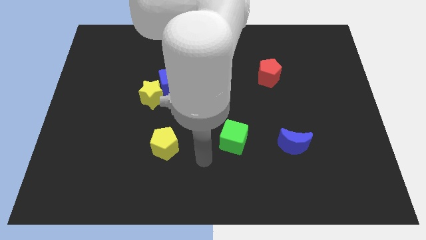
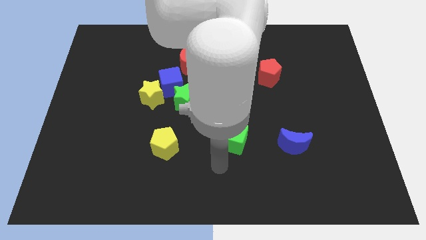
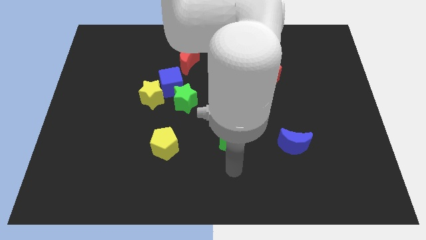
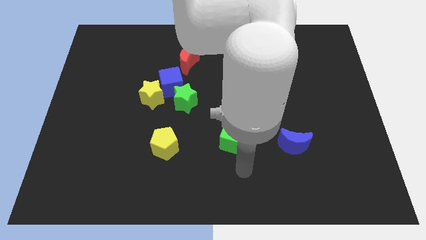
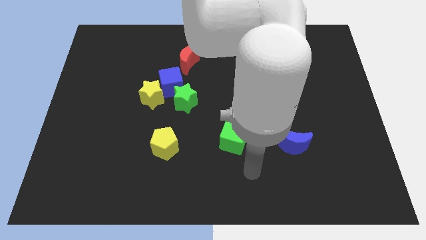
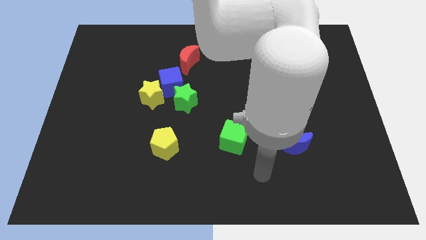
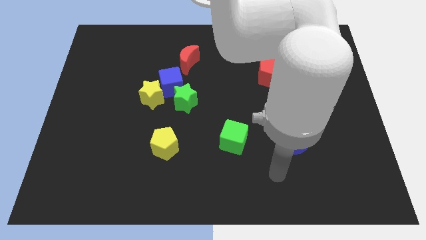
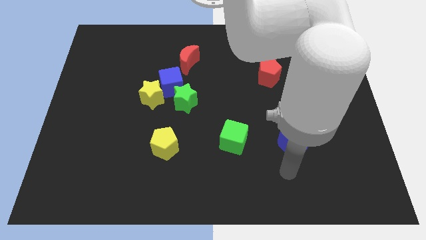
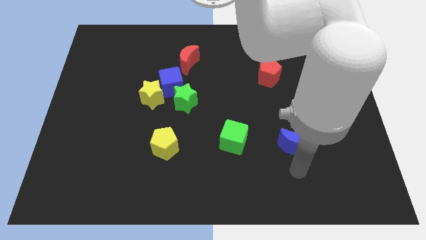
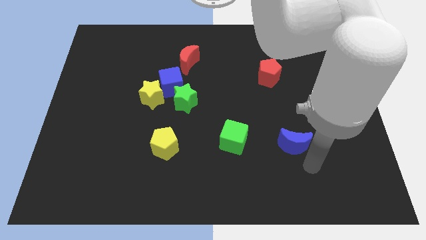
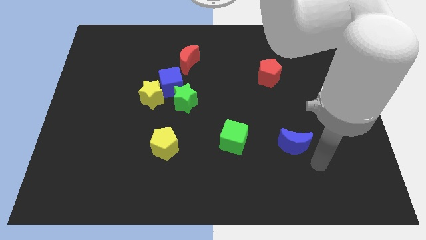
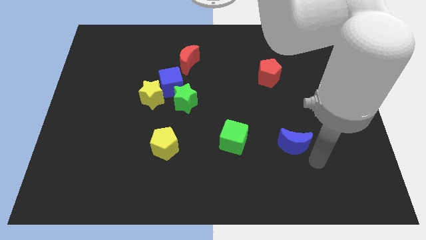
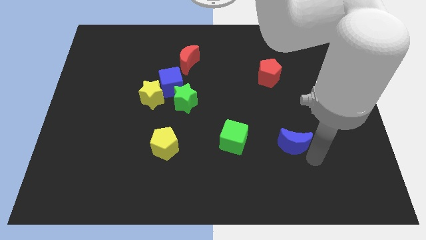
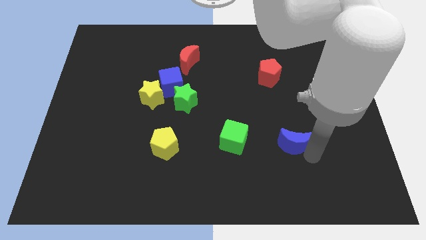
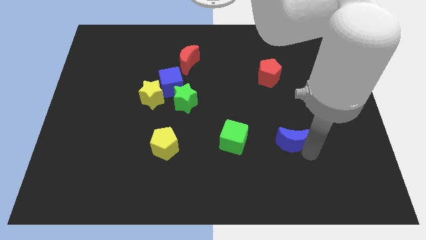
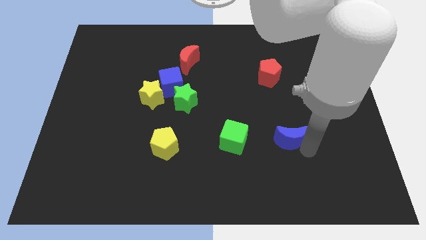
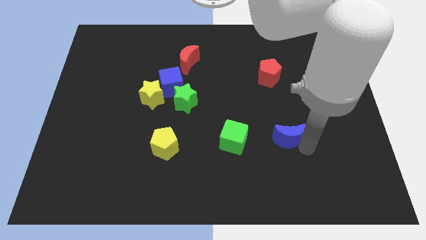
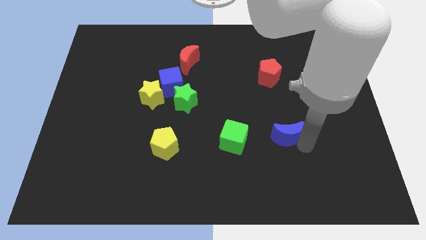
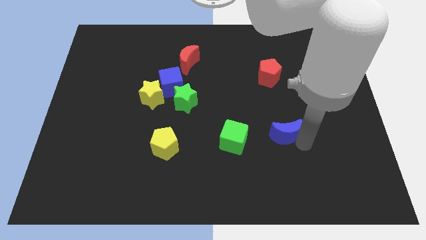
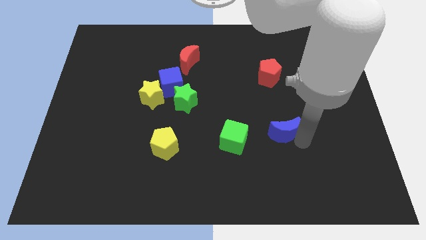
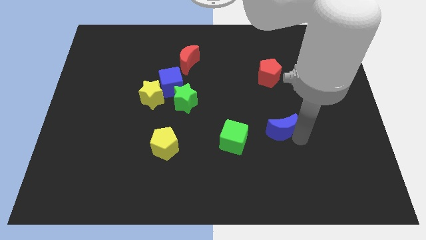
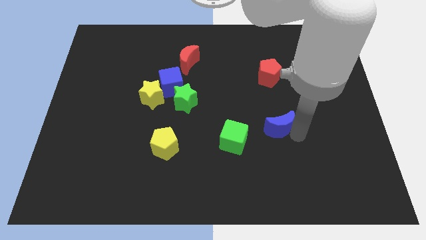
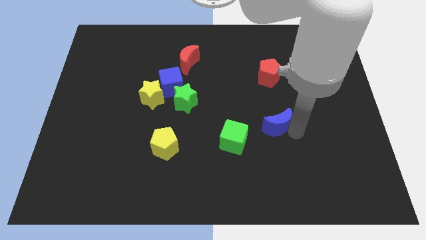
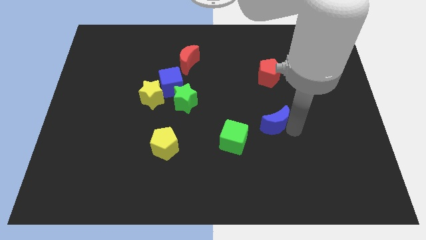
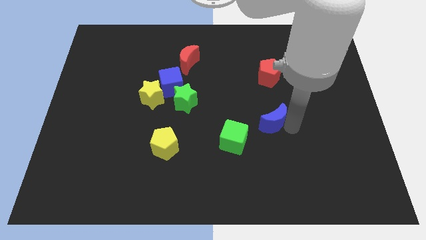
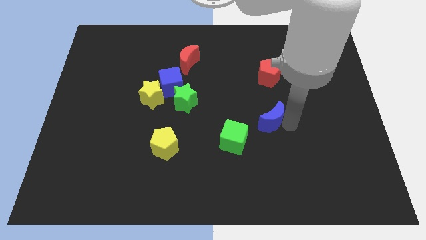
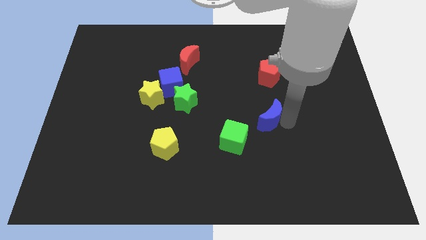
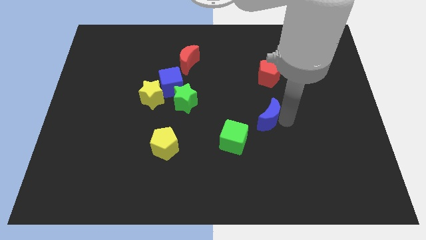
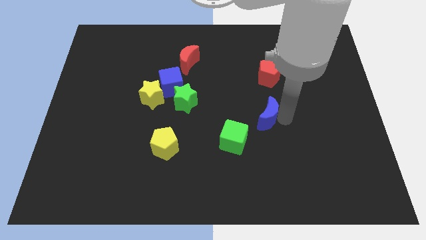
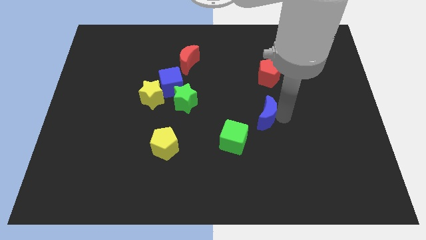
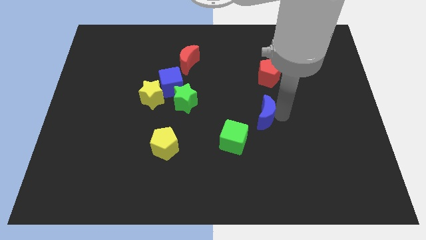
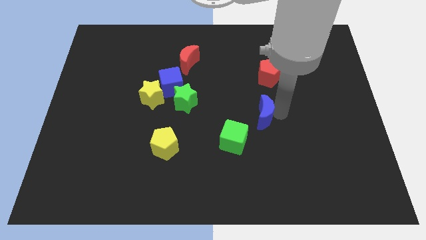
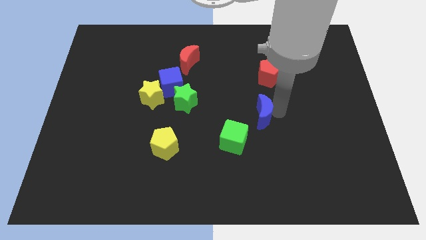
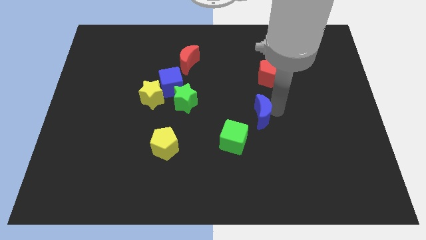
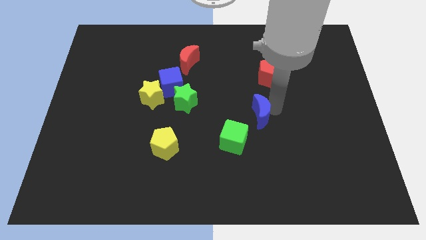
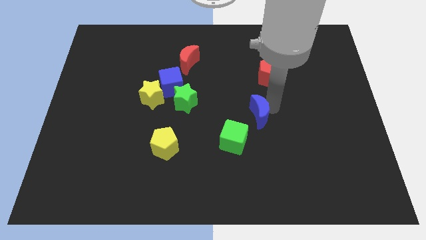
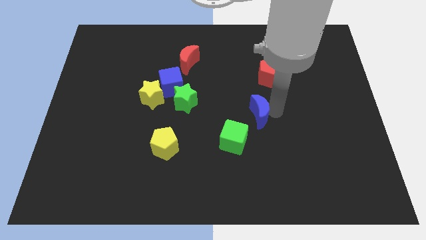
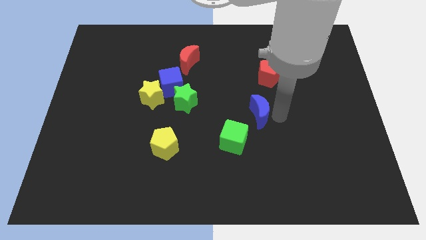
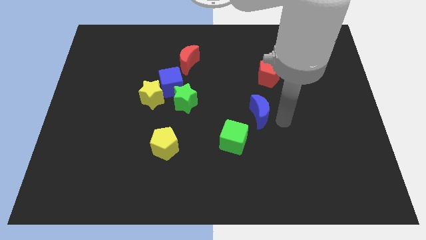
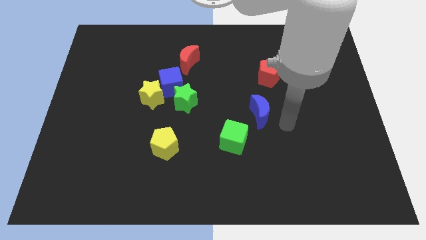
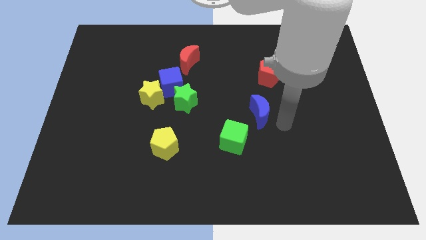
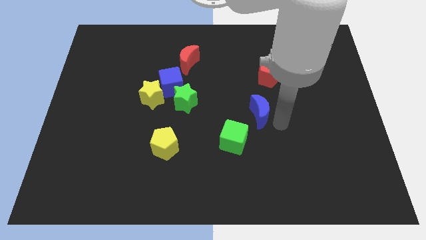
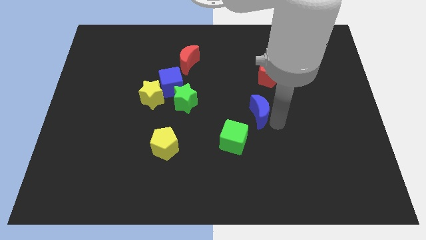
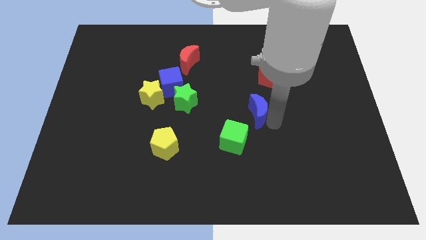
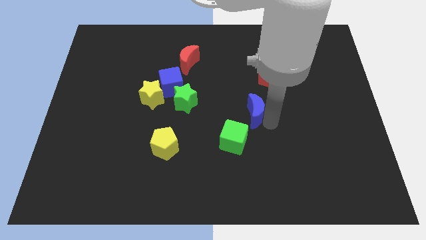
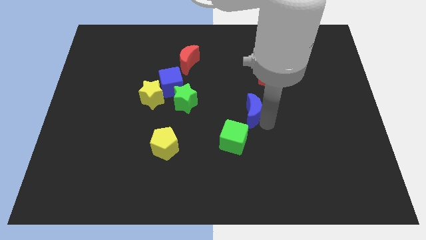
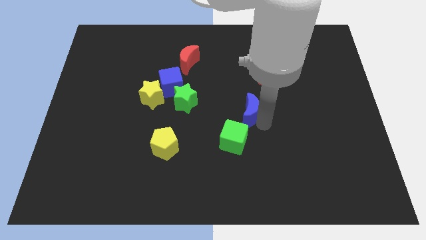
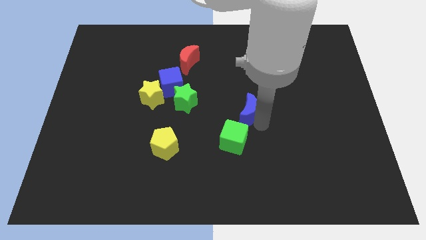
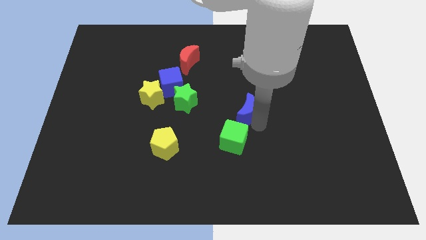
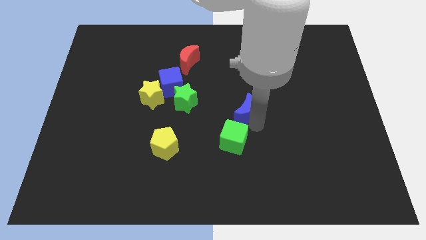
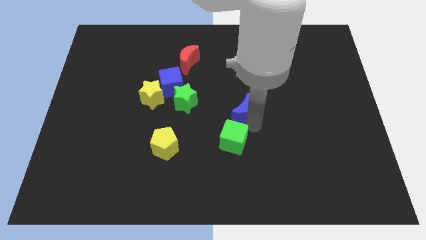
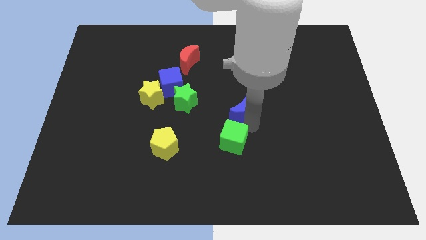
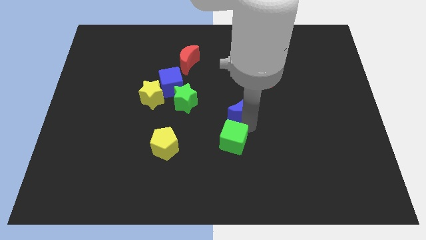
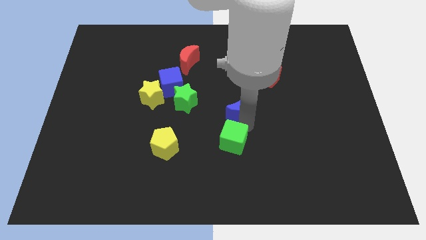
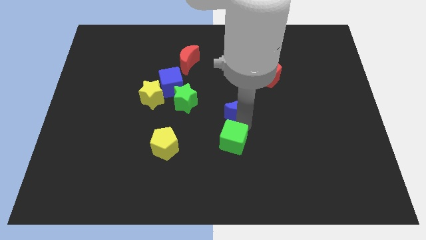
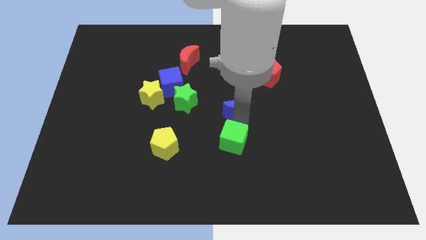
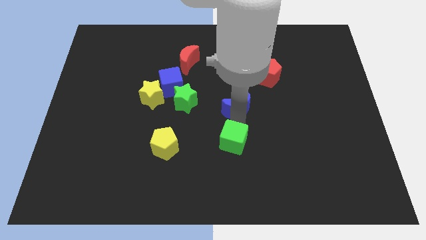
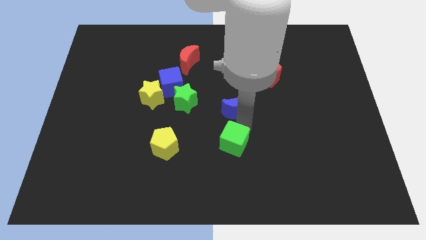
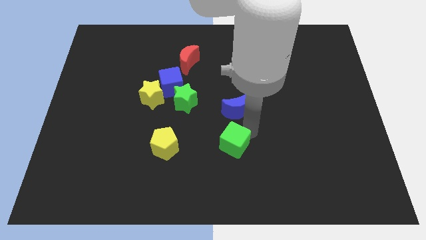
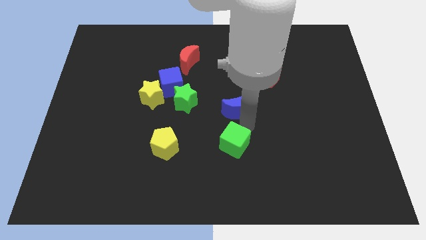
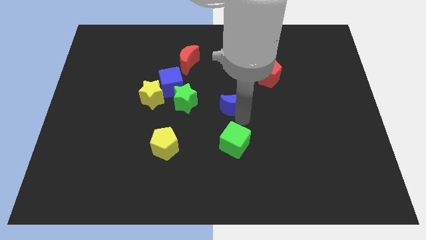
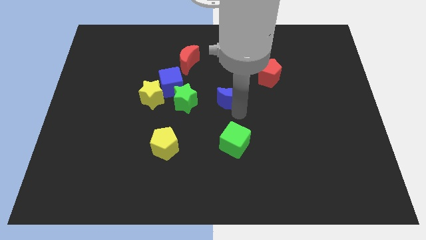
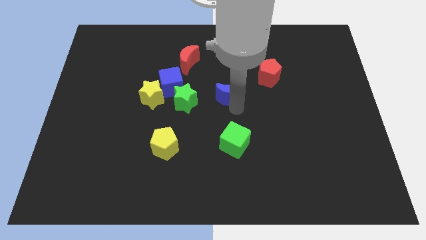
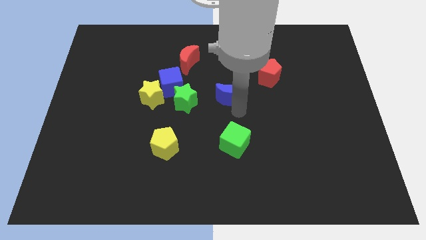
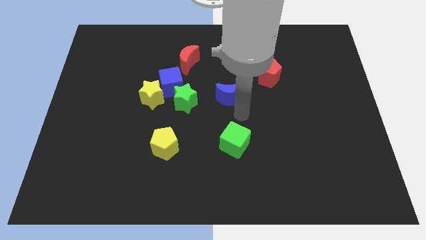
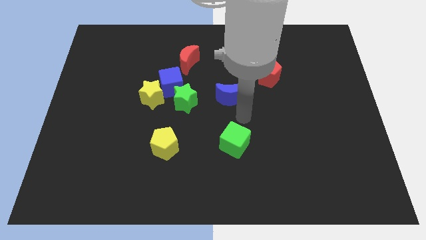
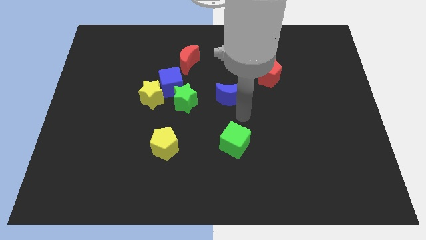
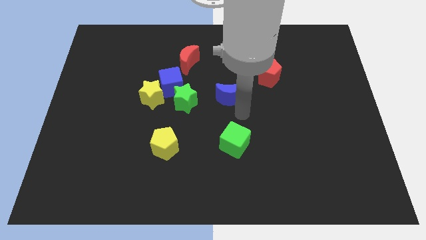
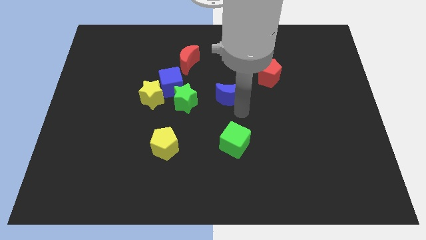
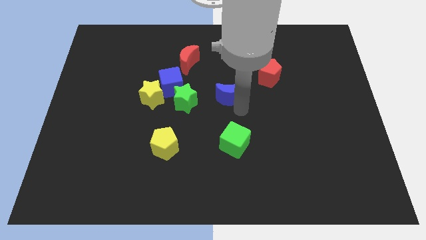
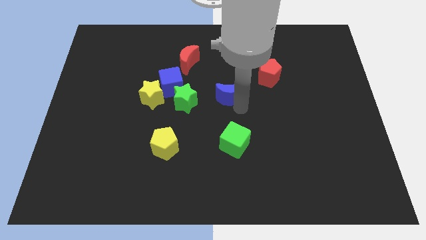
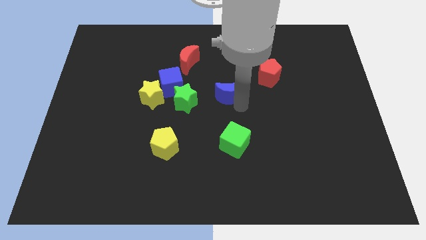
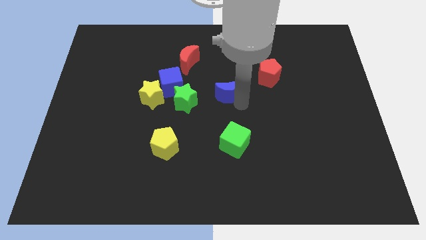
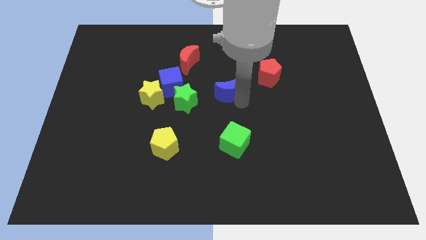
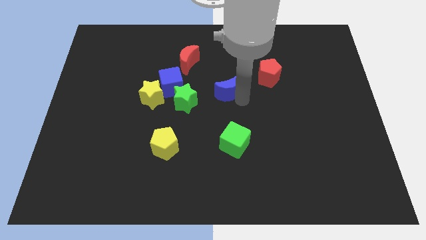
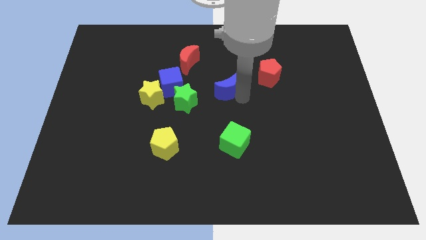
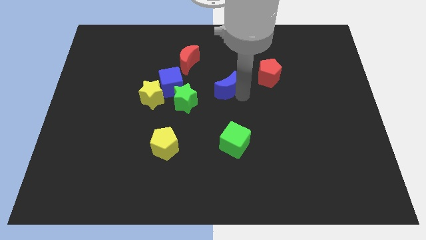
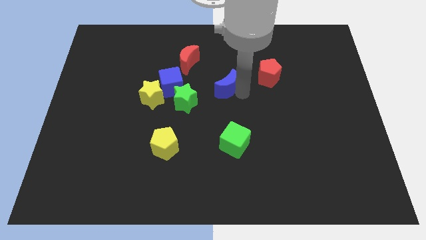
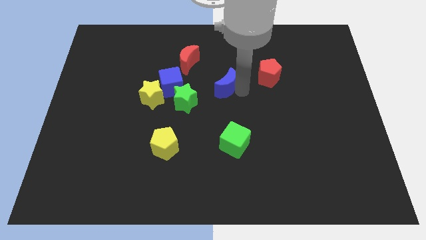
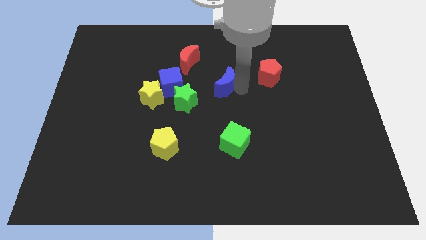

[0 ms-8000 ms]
move the blue moon to the bottom right of the red moon
